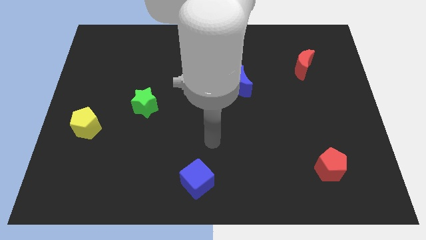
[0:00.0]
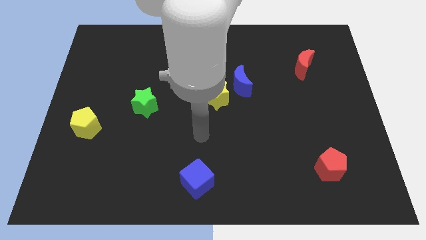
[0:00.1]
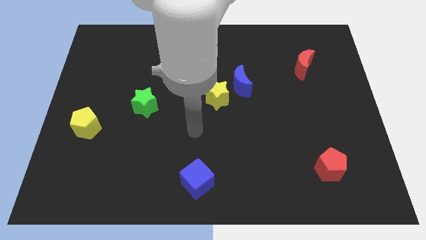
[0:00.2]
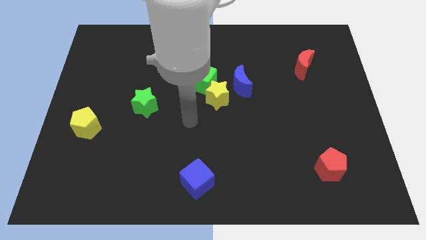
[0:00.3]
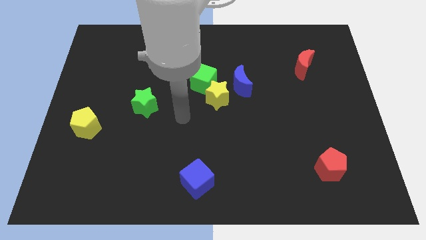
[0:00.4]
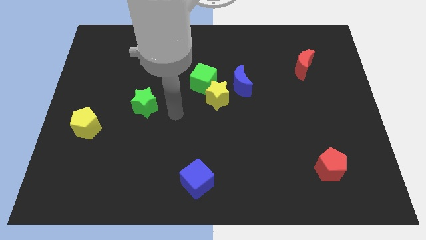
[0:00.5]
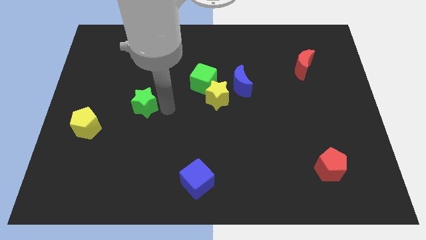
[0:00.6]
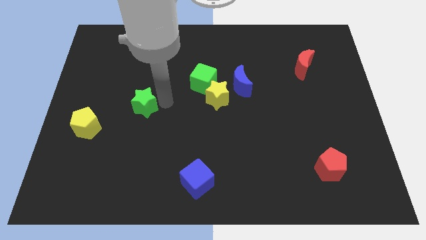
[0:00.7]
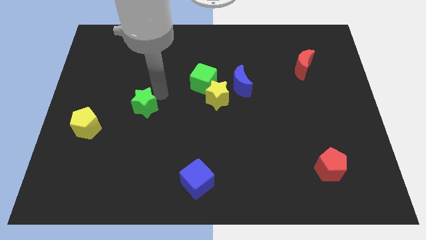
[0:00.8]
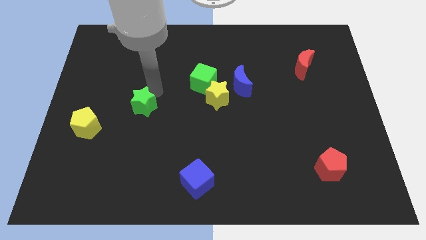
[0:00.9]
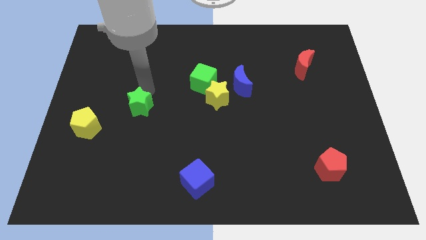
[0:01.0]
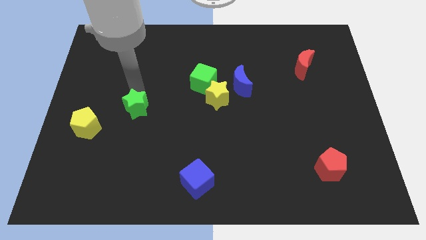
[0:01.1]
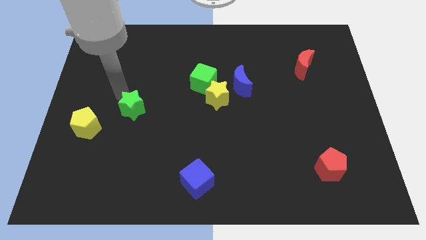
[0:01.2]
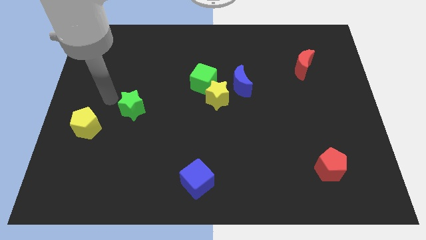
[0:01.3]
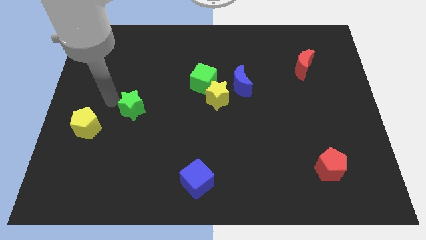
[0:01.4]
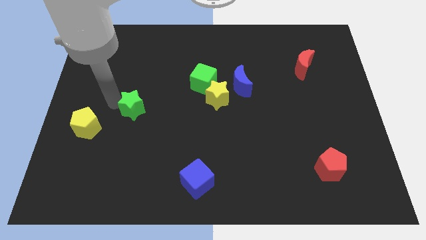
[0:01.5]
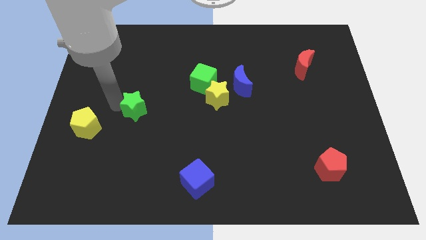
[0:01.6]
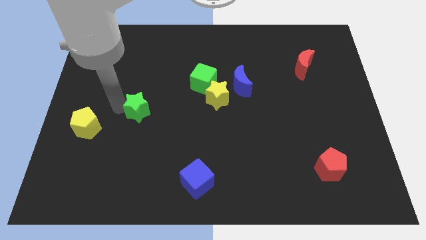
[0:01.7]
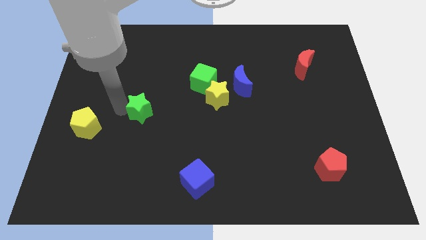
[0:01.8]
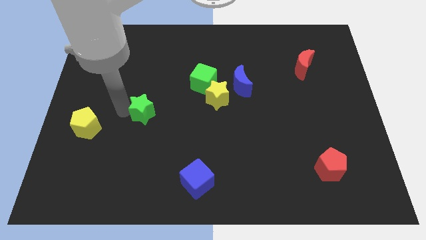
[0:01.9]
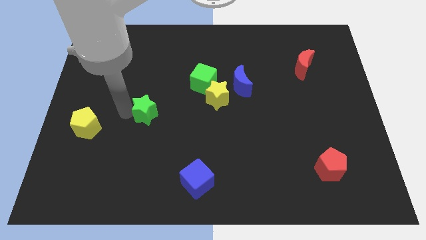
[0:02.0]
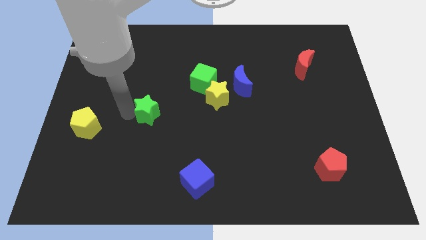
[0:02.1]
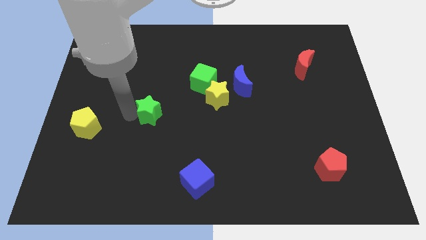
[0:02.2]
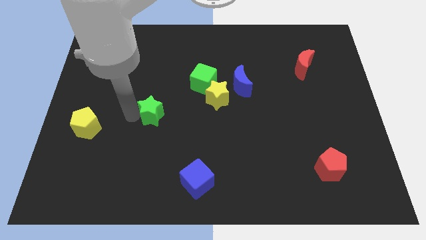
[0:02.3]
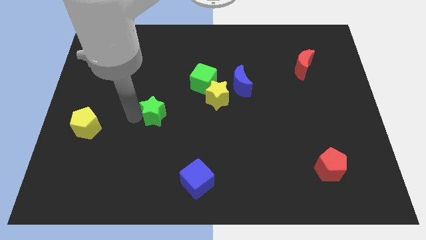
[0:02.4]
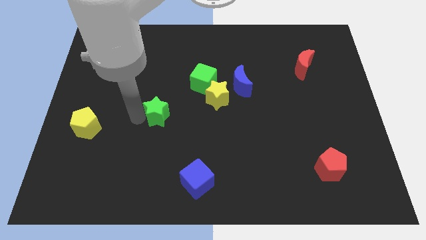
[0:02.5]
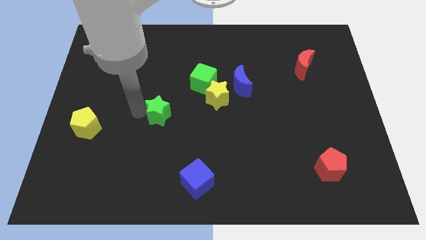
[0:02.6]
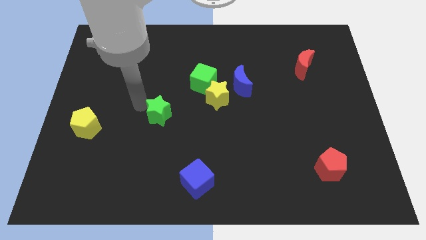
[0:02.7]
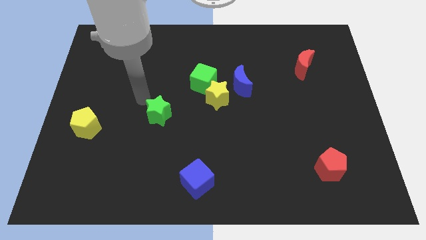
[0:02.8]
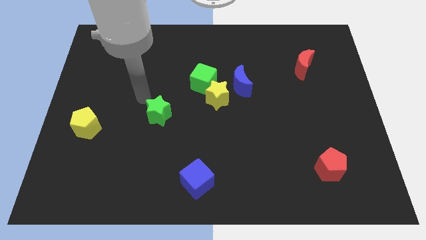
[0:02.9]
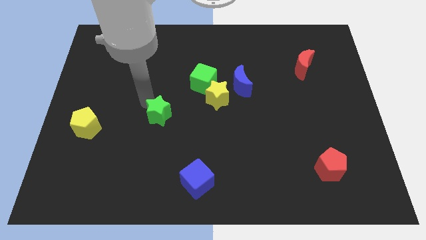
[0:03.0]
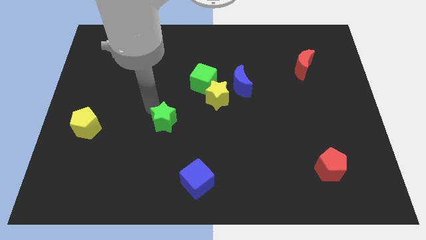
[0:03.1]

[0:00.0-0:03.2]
push the green star down and to the right somewhat

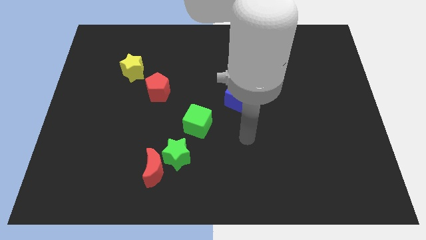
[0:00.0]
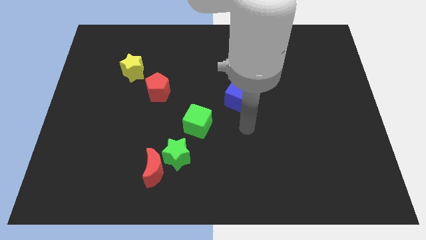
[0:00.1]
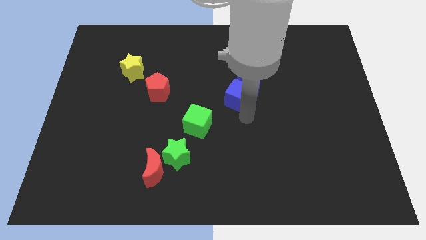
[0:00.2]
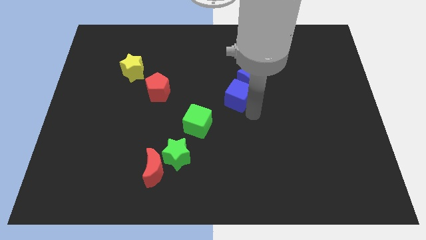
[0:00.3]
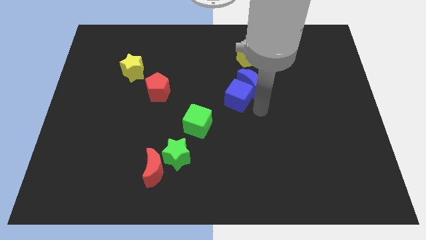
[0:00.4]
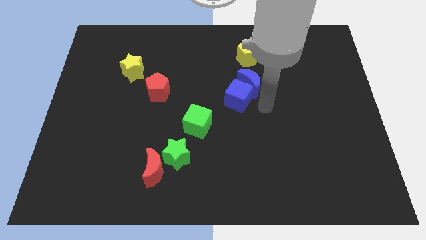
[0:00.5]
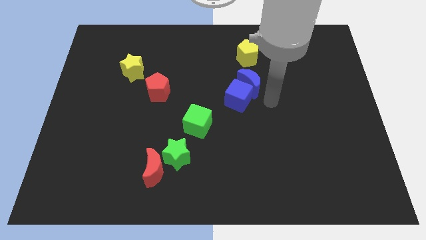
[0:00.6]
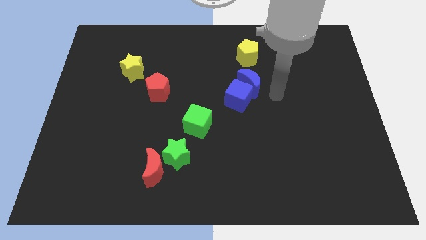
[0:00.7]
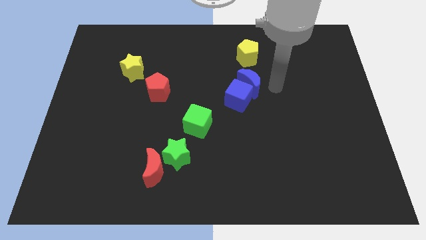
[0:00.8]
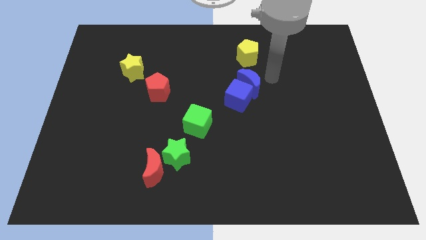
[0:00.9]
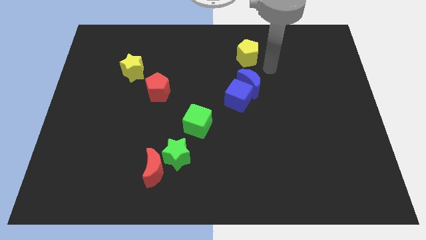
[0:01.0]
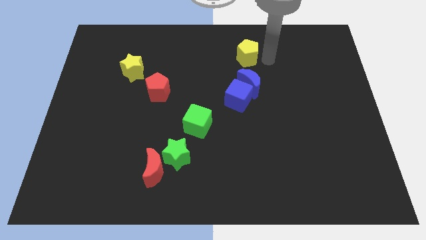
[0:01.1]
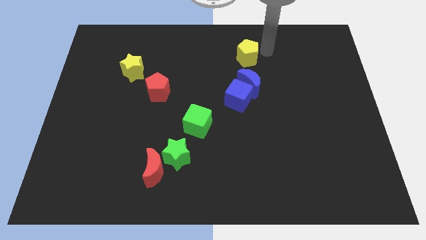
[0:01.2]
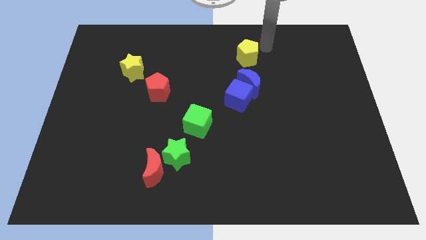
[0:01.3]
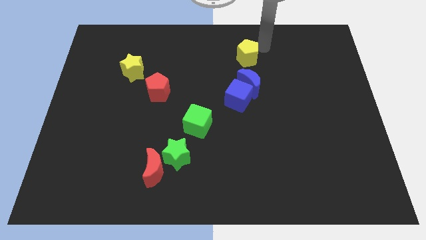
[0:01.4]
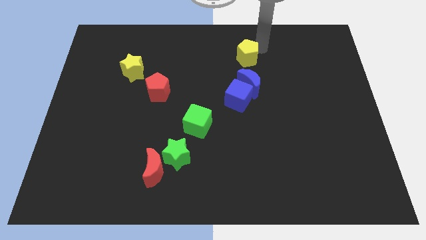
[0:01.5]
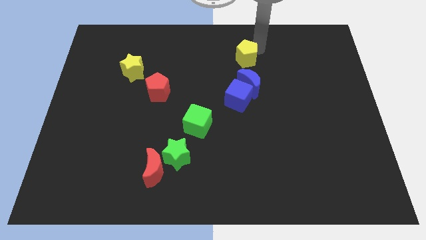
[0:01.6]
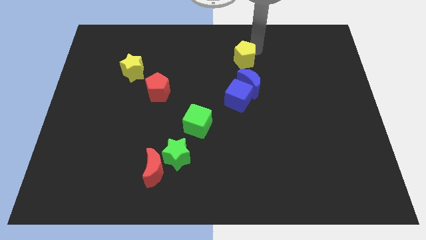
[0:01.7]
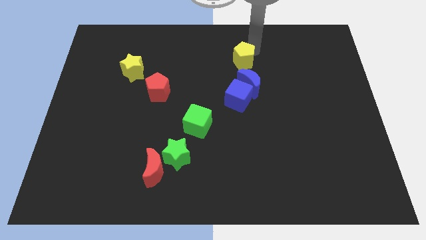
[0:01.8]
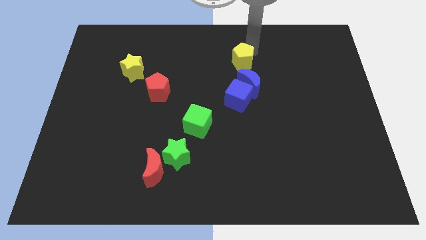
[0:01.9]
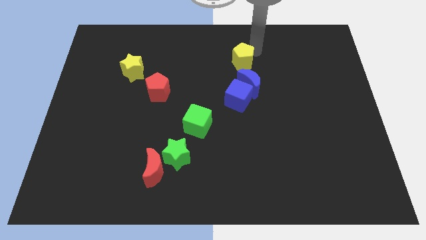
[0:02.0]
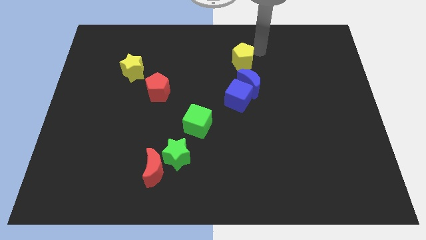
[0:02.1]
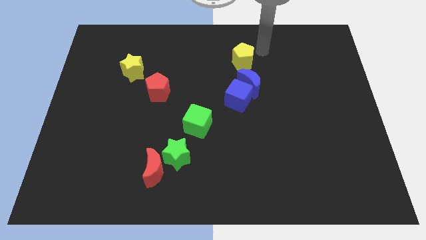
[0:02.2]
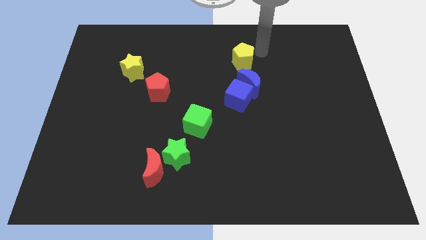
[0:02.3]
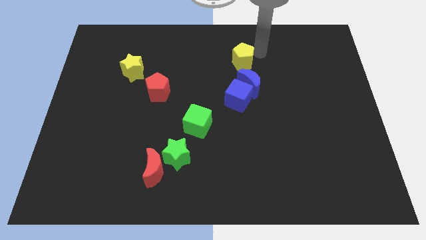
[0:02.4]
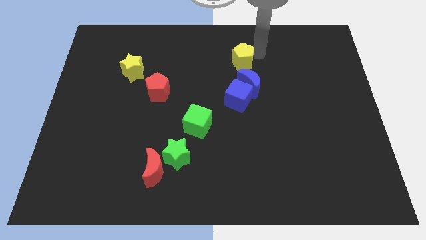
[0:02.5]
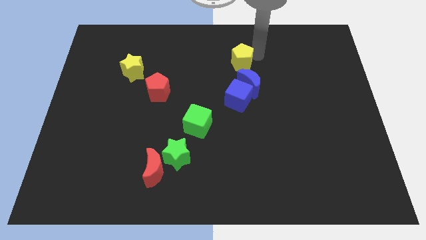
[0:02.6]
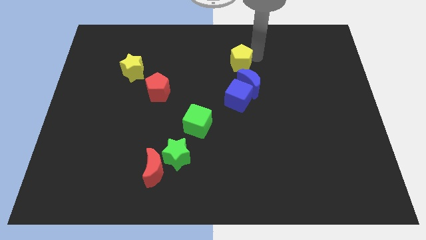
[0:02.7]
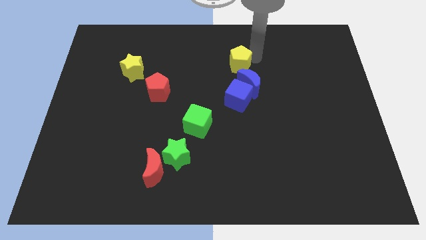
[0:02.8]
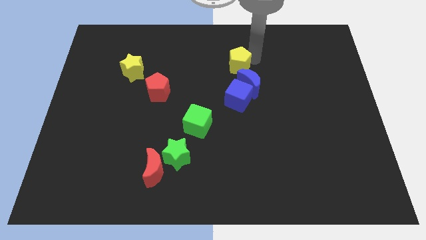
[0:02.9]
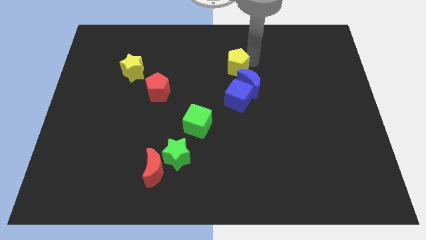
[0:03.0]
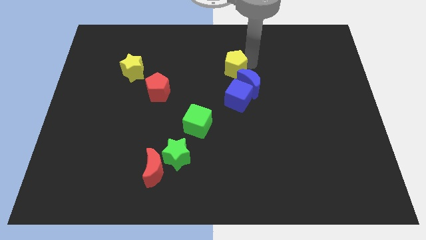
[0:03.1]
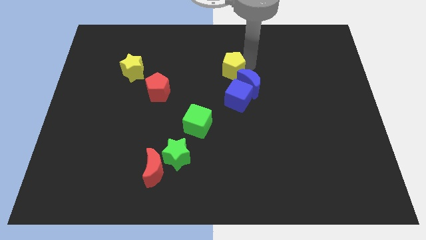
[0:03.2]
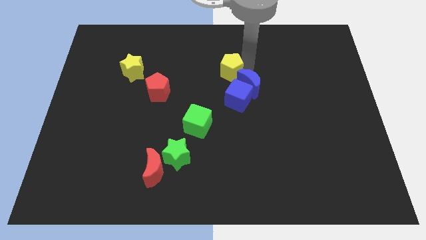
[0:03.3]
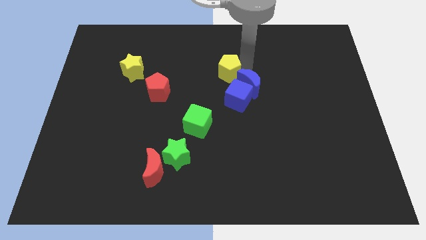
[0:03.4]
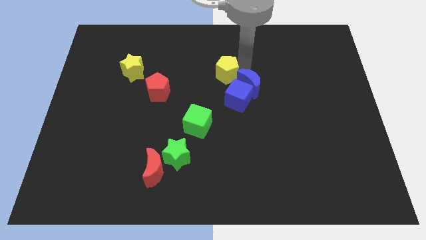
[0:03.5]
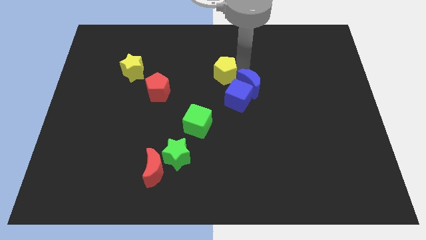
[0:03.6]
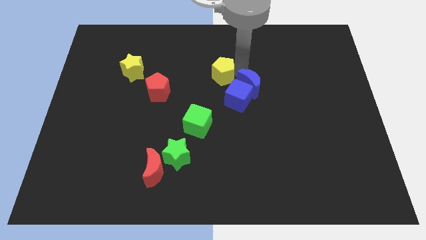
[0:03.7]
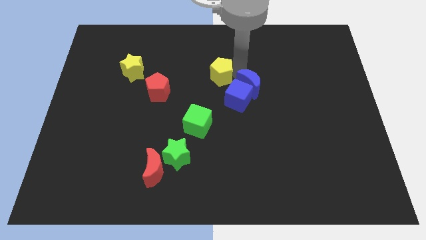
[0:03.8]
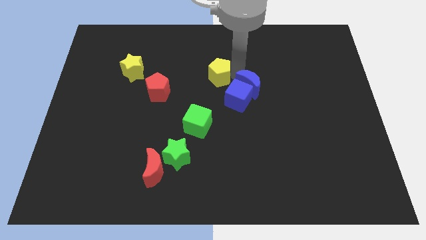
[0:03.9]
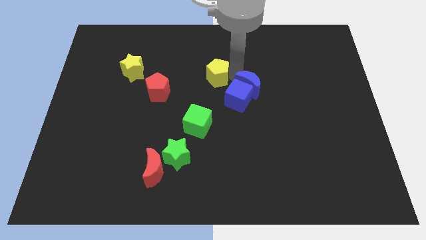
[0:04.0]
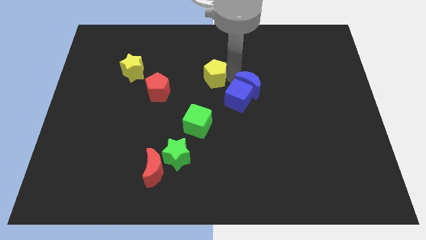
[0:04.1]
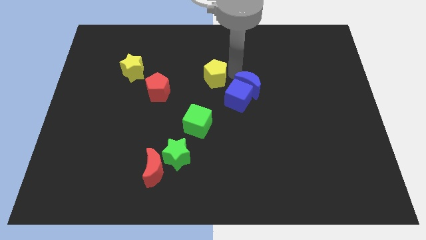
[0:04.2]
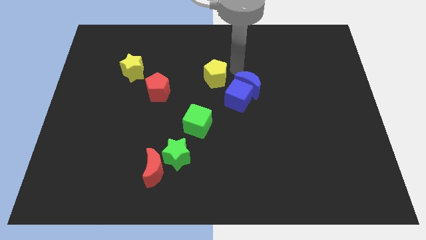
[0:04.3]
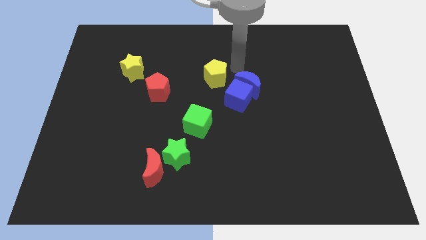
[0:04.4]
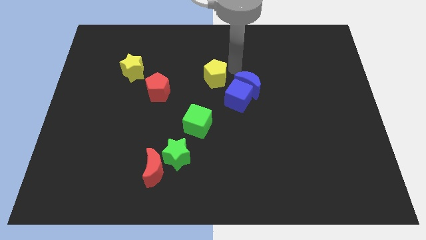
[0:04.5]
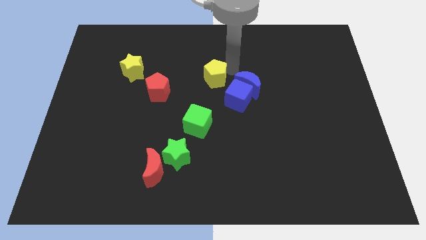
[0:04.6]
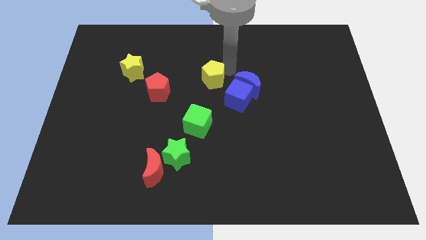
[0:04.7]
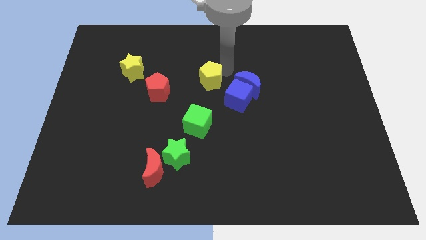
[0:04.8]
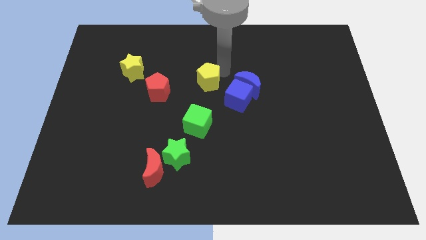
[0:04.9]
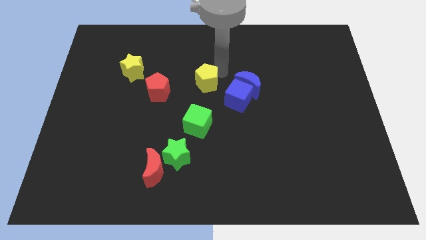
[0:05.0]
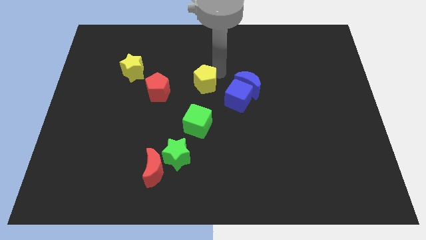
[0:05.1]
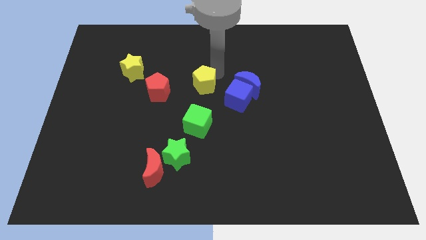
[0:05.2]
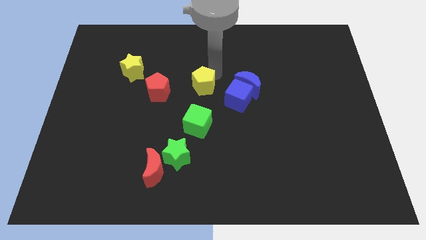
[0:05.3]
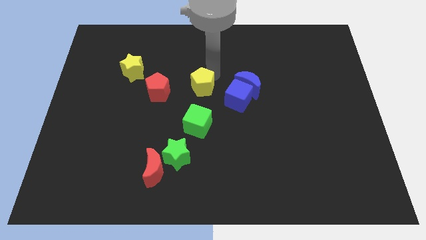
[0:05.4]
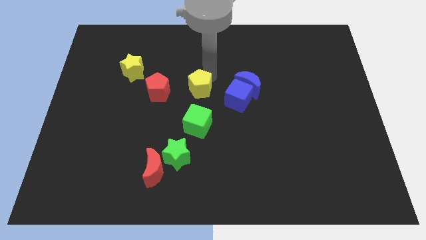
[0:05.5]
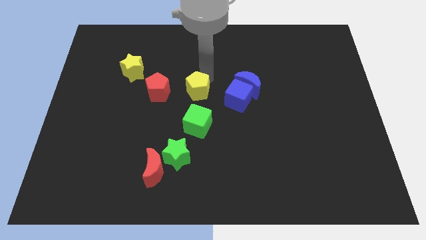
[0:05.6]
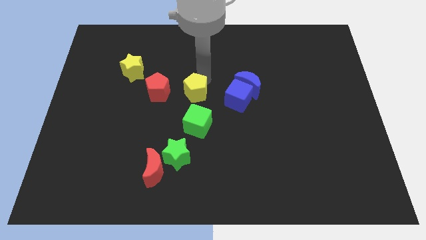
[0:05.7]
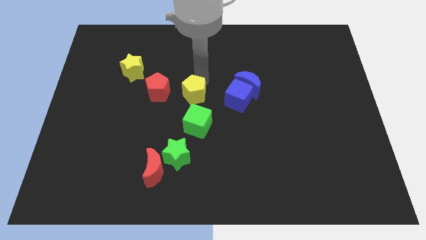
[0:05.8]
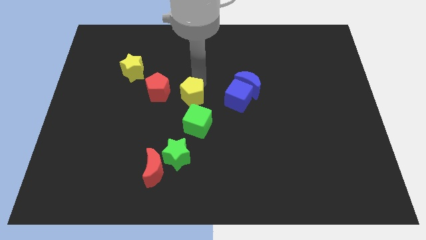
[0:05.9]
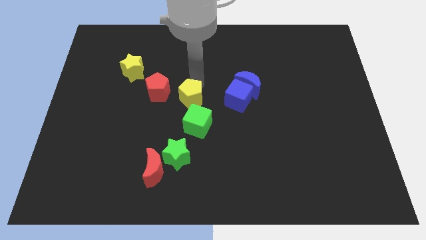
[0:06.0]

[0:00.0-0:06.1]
slide the yellow pentagon down and then to the left
